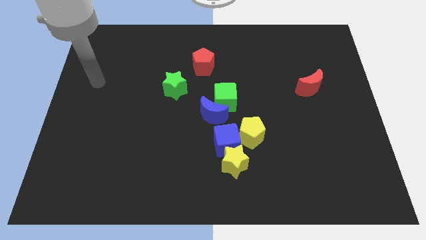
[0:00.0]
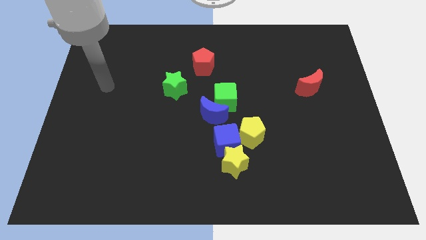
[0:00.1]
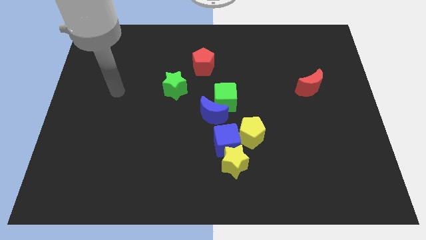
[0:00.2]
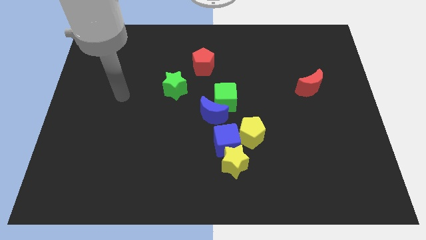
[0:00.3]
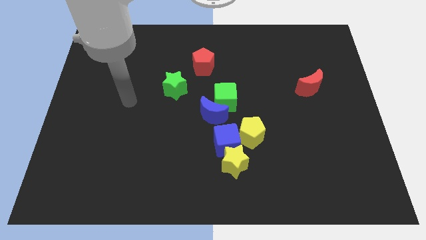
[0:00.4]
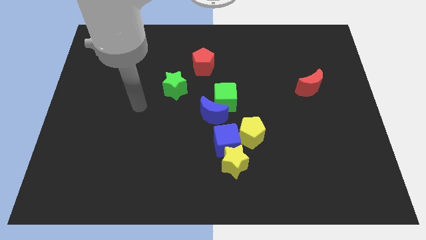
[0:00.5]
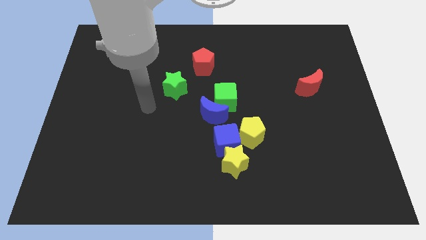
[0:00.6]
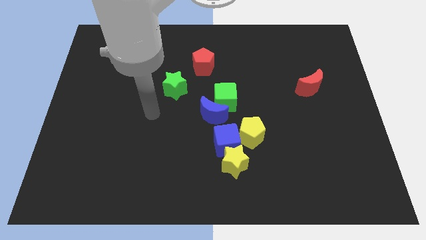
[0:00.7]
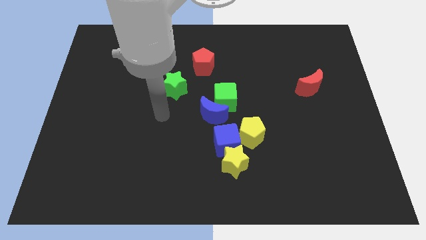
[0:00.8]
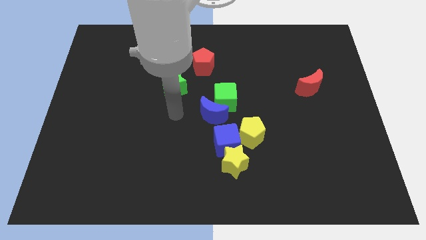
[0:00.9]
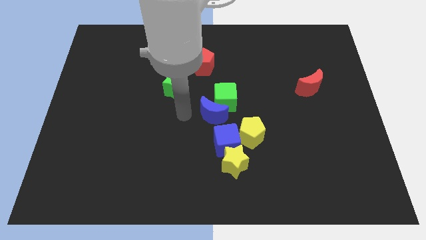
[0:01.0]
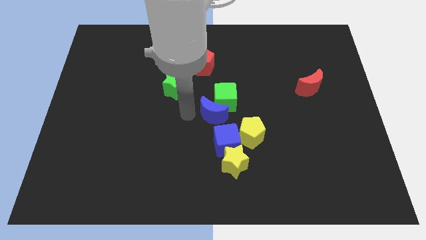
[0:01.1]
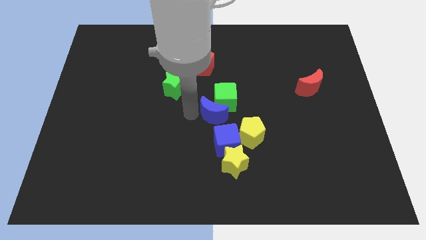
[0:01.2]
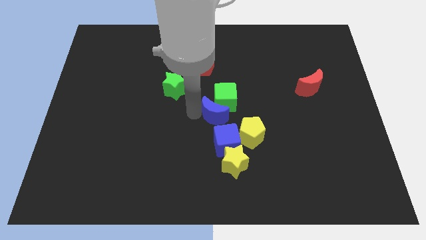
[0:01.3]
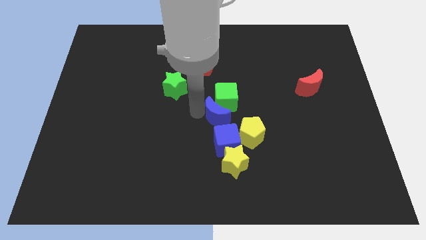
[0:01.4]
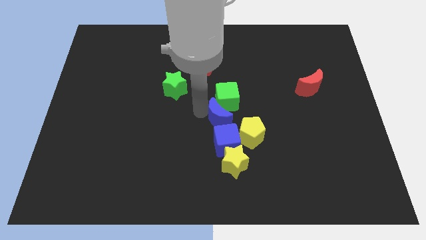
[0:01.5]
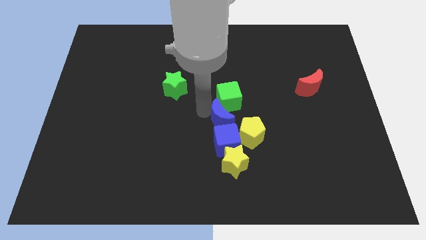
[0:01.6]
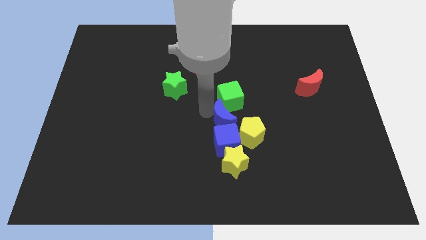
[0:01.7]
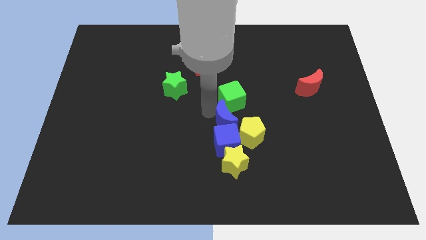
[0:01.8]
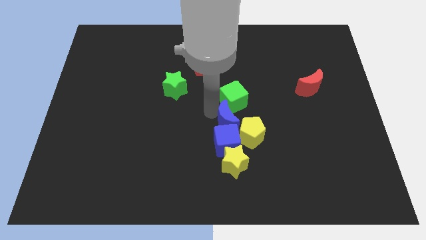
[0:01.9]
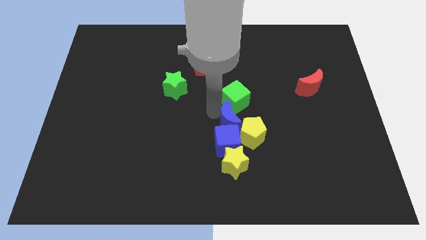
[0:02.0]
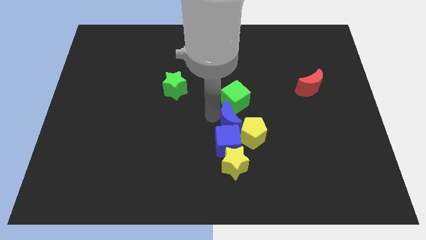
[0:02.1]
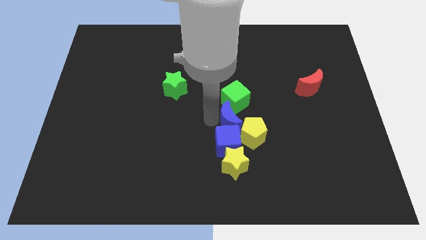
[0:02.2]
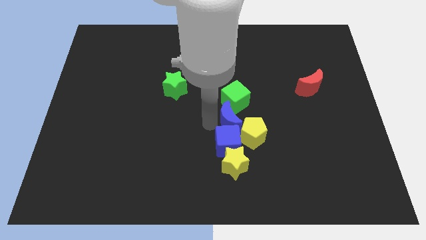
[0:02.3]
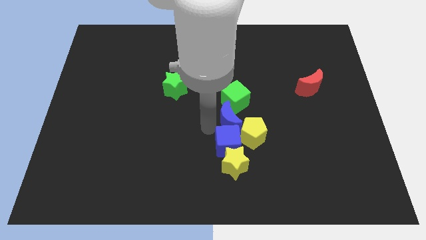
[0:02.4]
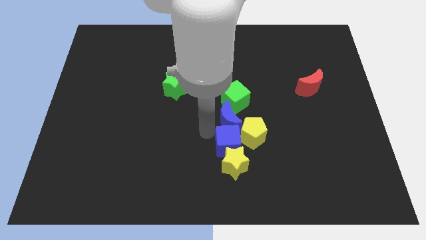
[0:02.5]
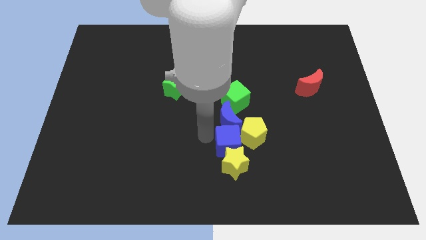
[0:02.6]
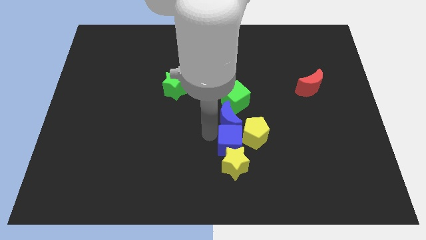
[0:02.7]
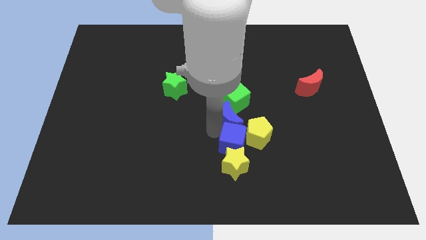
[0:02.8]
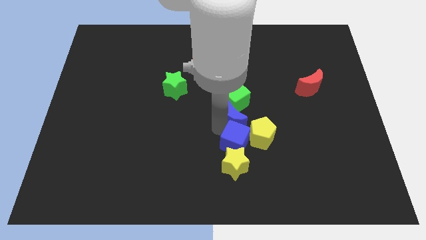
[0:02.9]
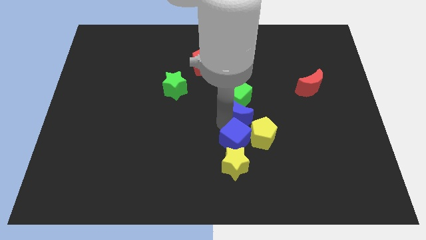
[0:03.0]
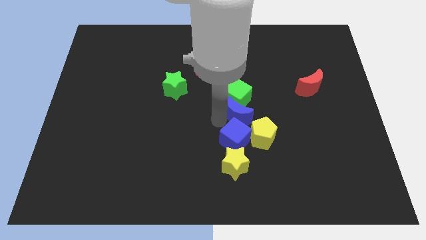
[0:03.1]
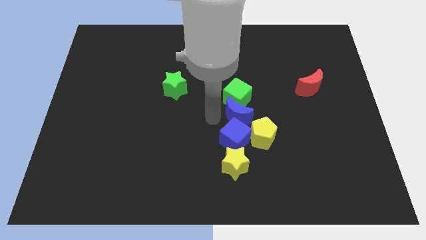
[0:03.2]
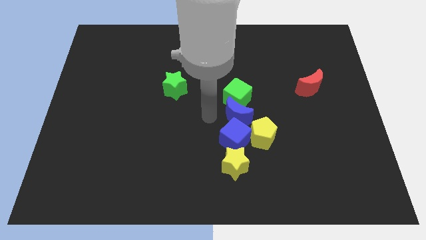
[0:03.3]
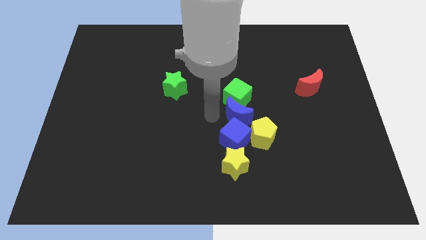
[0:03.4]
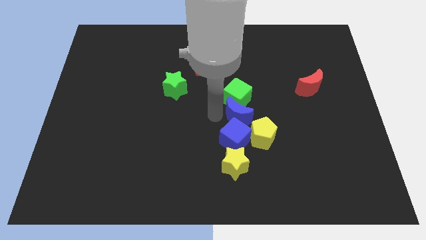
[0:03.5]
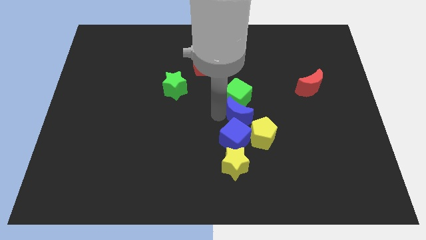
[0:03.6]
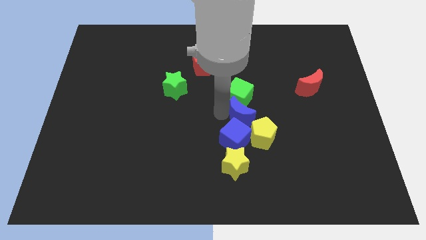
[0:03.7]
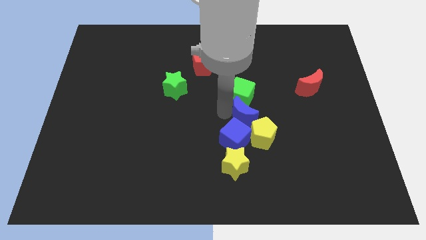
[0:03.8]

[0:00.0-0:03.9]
push the blue moon to the right a bit

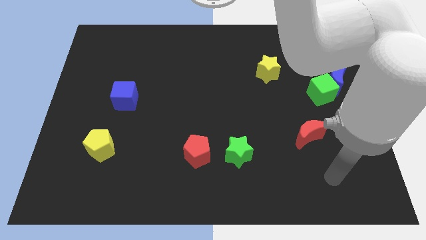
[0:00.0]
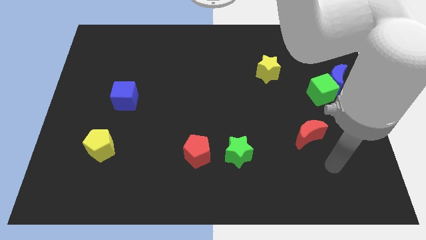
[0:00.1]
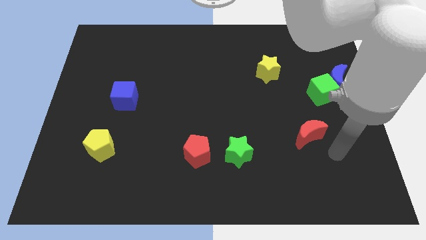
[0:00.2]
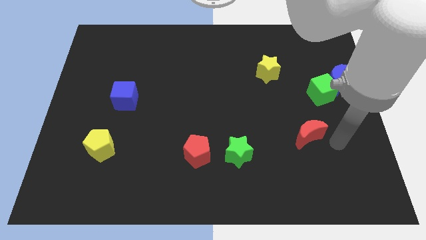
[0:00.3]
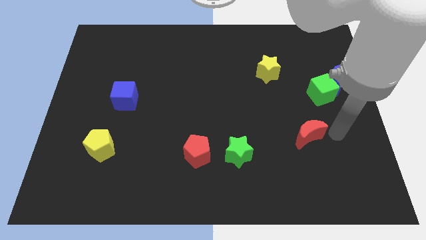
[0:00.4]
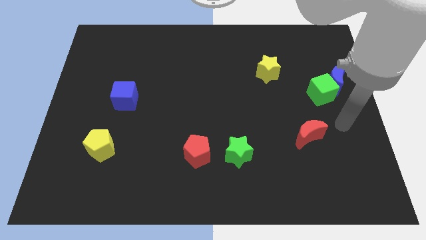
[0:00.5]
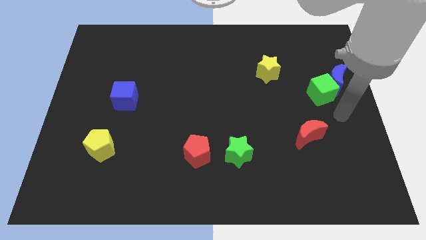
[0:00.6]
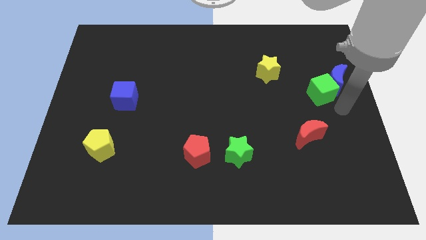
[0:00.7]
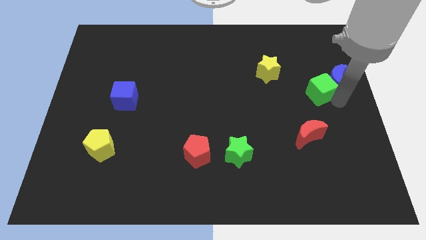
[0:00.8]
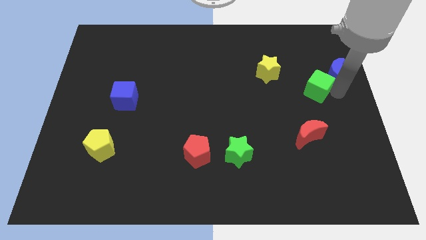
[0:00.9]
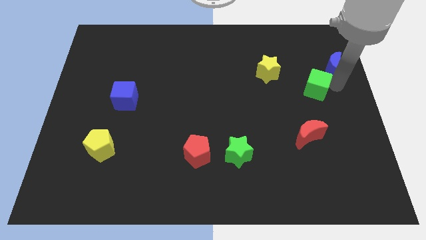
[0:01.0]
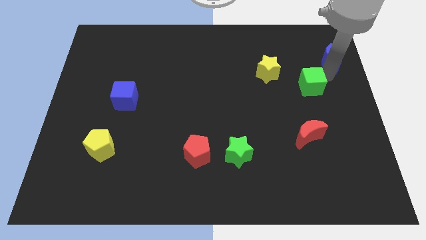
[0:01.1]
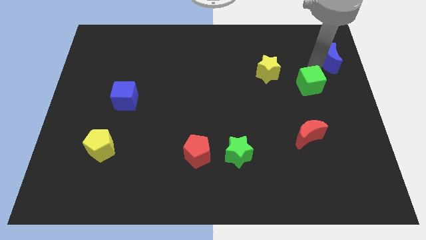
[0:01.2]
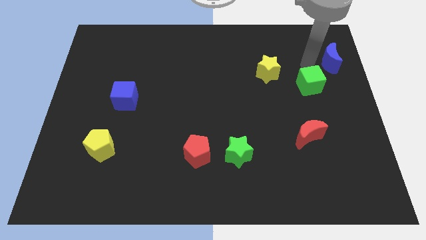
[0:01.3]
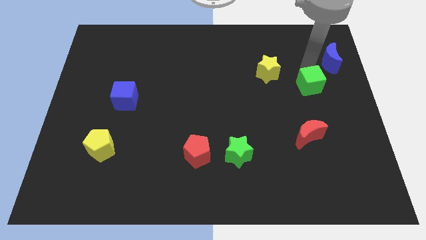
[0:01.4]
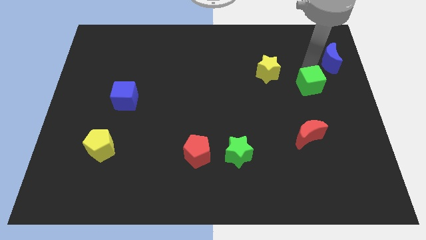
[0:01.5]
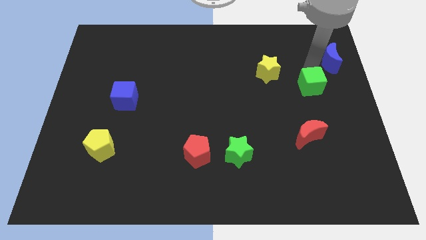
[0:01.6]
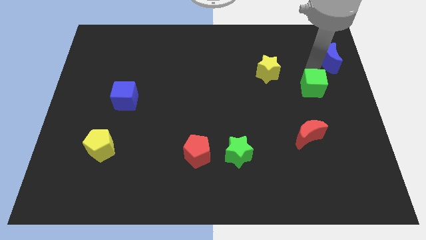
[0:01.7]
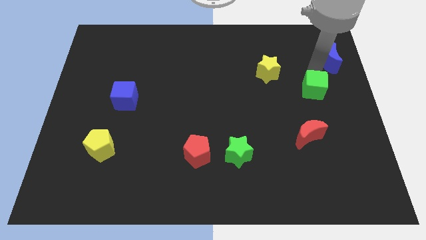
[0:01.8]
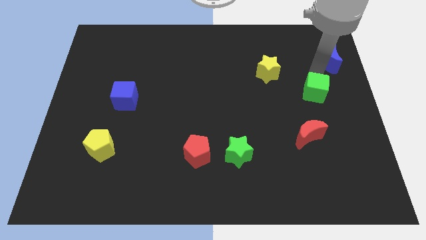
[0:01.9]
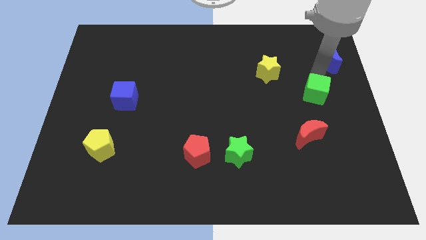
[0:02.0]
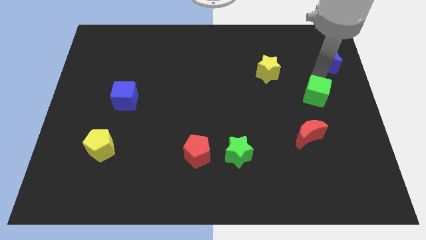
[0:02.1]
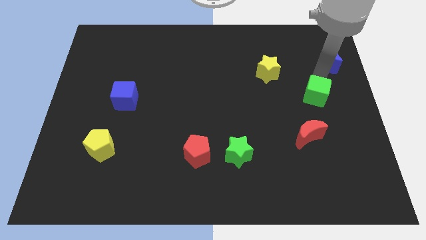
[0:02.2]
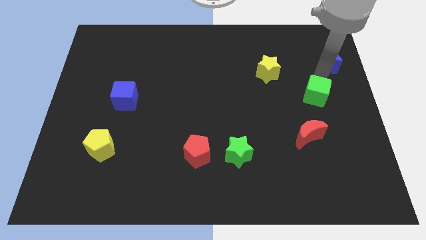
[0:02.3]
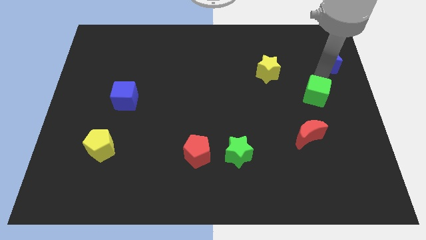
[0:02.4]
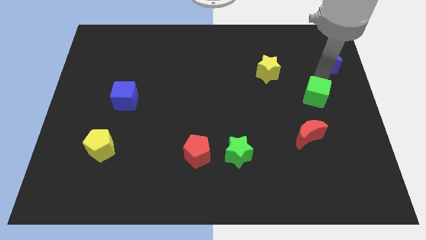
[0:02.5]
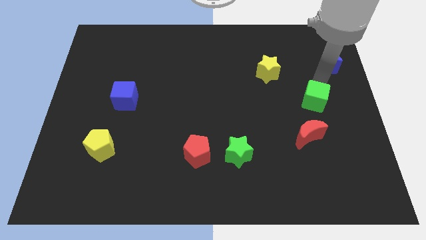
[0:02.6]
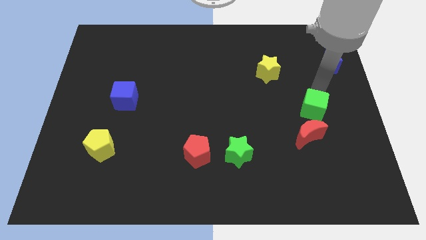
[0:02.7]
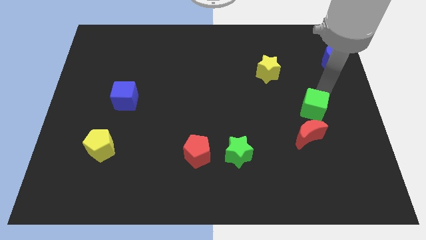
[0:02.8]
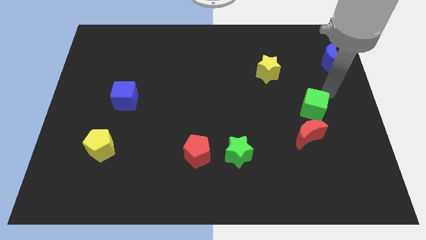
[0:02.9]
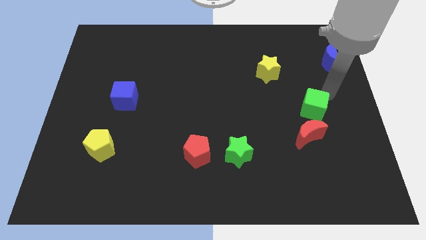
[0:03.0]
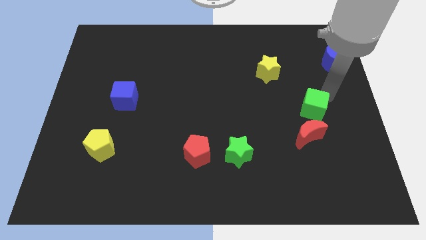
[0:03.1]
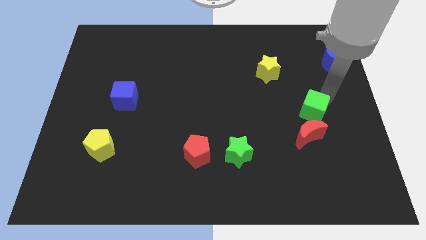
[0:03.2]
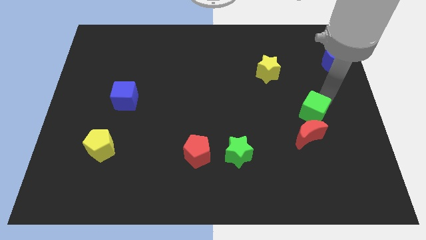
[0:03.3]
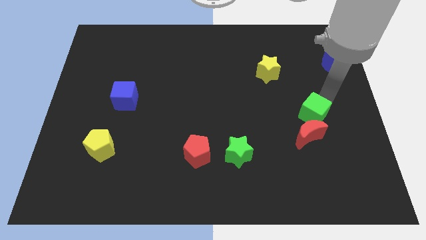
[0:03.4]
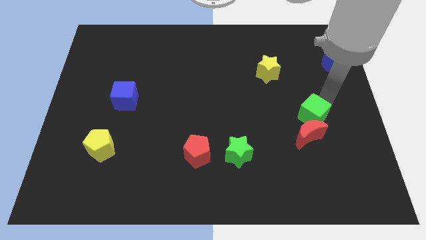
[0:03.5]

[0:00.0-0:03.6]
slightly push the green cube down and then left

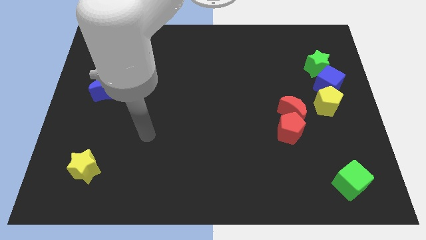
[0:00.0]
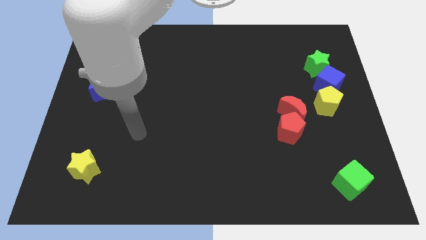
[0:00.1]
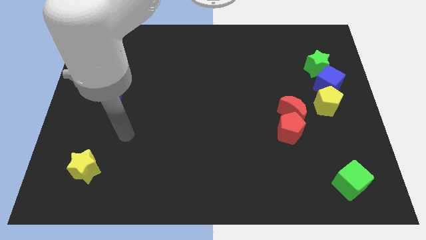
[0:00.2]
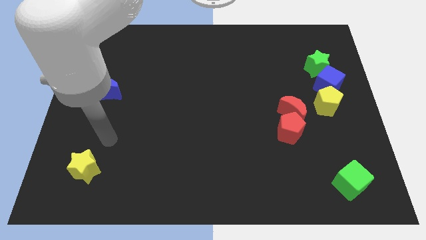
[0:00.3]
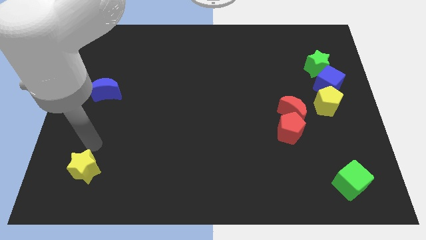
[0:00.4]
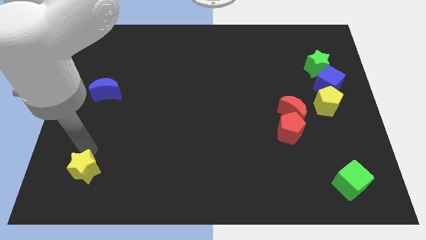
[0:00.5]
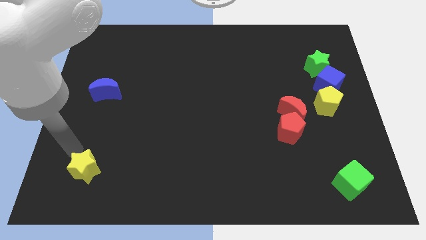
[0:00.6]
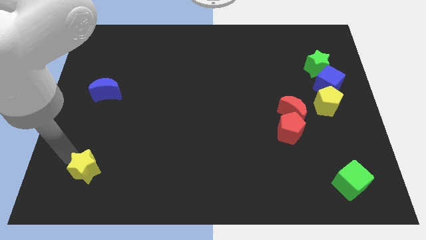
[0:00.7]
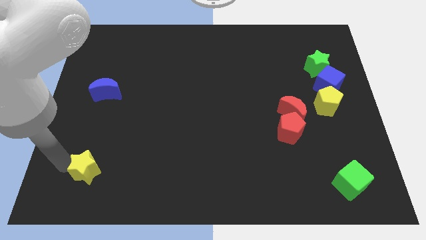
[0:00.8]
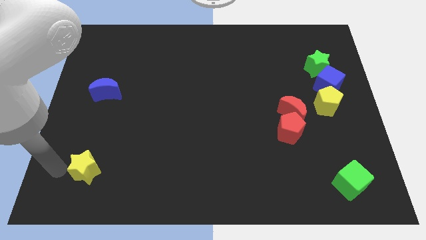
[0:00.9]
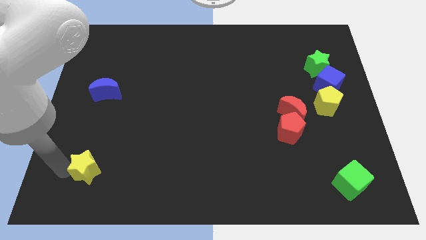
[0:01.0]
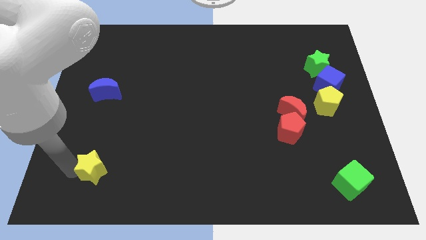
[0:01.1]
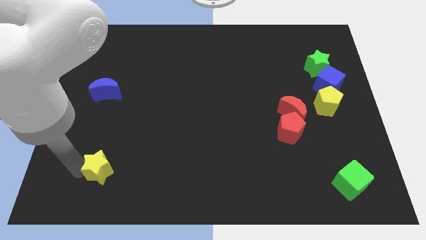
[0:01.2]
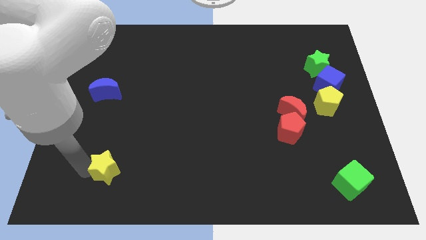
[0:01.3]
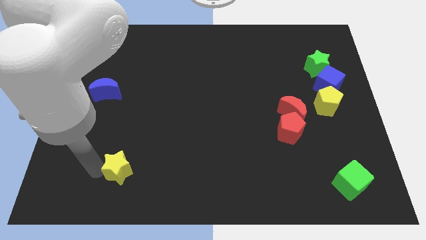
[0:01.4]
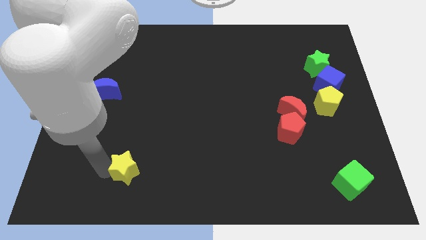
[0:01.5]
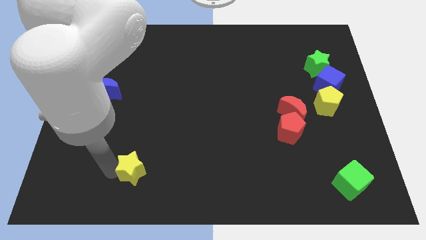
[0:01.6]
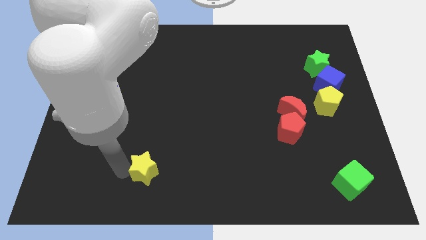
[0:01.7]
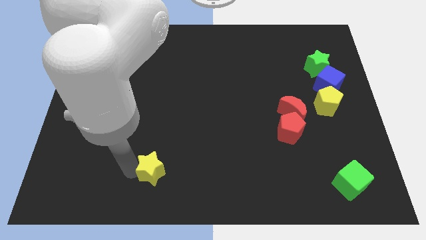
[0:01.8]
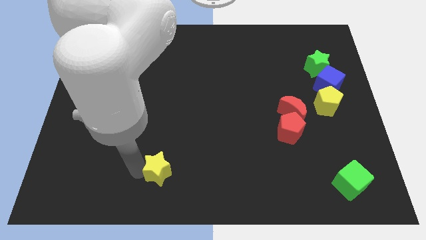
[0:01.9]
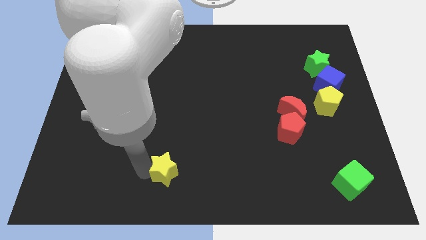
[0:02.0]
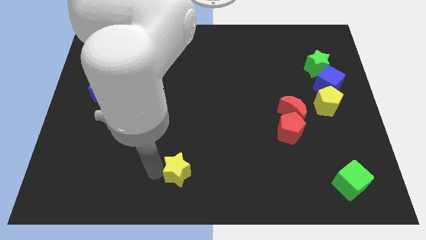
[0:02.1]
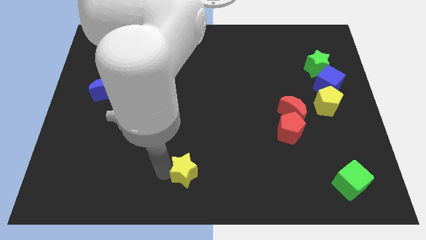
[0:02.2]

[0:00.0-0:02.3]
push the yellow star to the right
